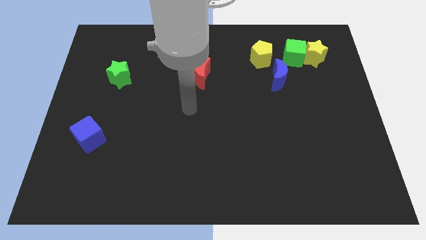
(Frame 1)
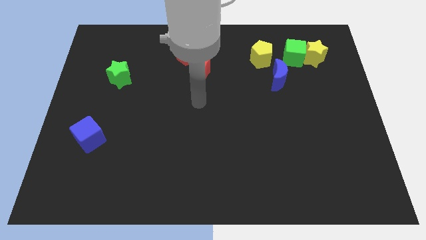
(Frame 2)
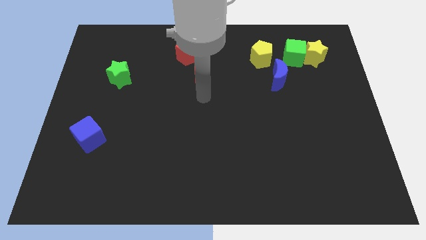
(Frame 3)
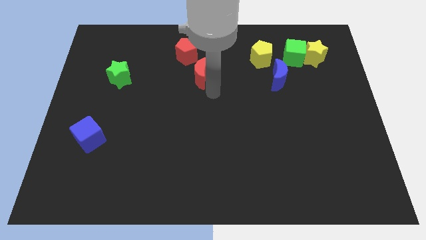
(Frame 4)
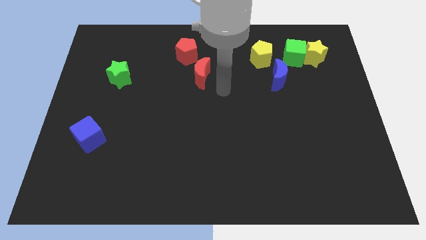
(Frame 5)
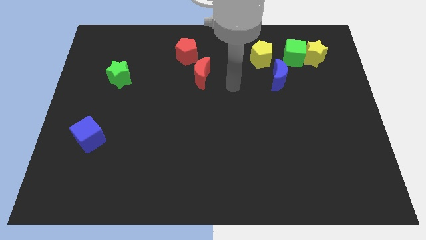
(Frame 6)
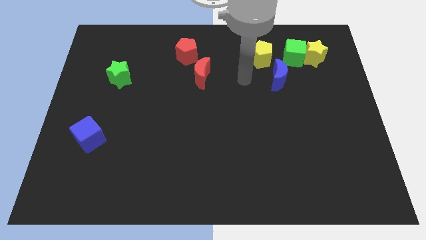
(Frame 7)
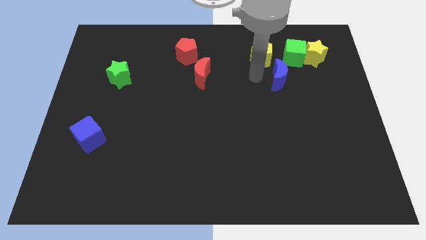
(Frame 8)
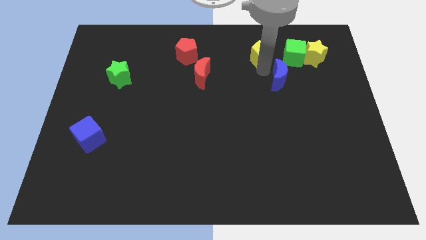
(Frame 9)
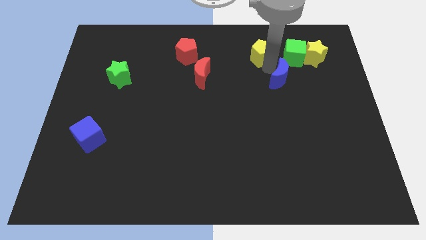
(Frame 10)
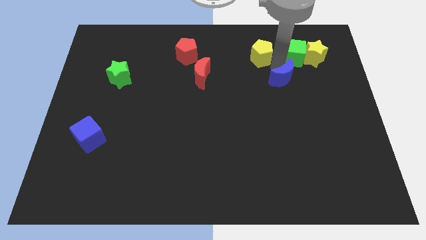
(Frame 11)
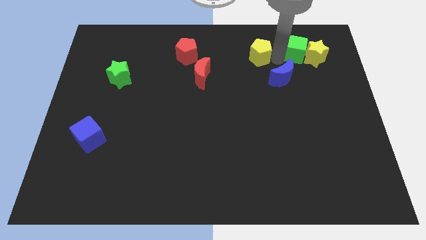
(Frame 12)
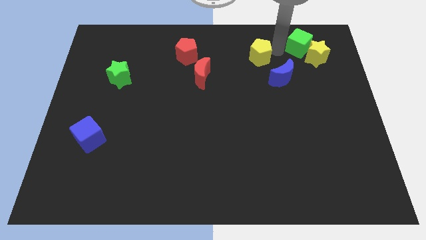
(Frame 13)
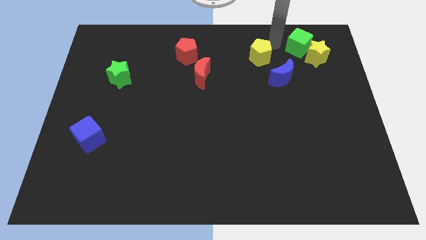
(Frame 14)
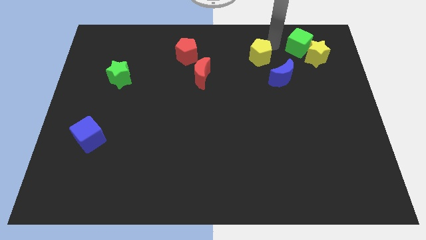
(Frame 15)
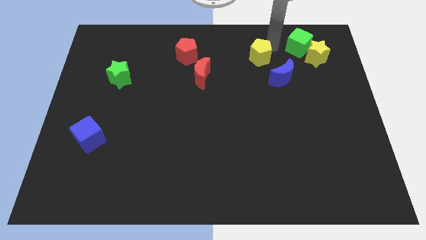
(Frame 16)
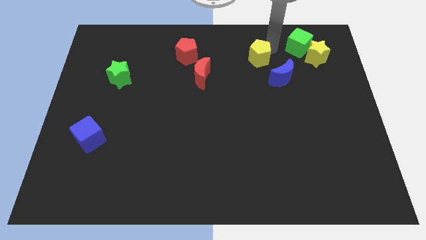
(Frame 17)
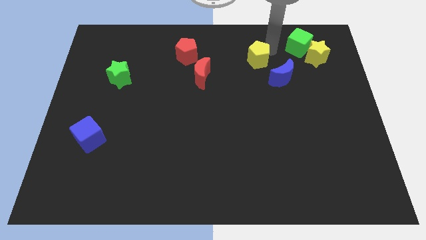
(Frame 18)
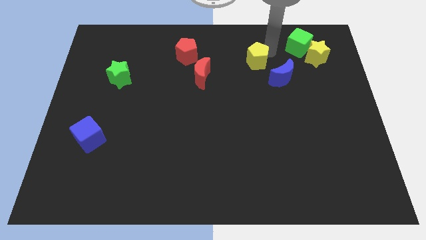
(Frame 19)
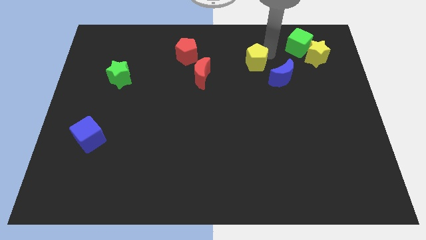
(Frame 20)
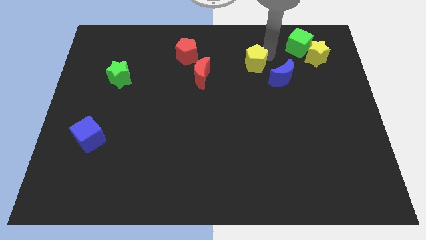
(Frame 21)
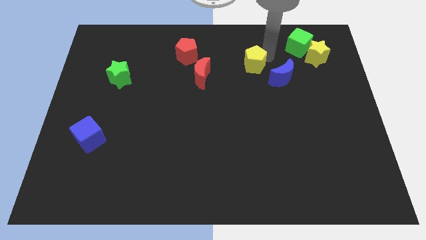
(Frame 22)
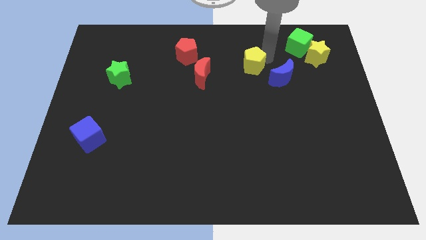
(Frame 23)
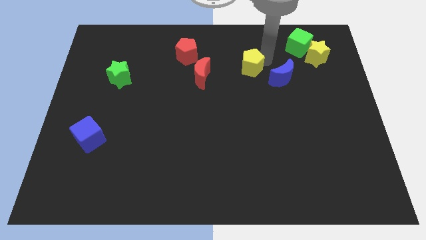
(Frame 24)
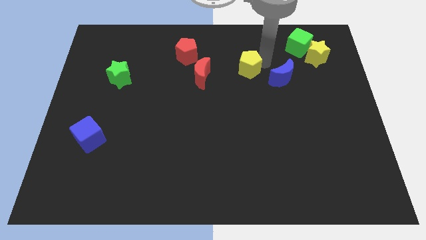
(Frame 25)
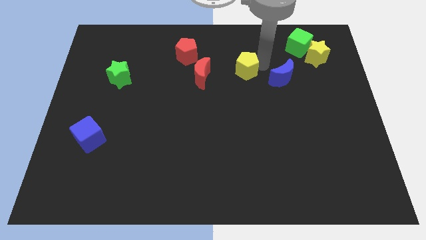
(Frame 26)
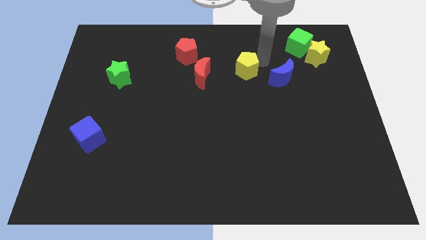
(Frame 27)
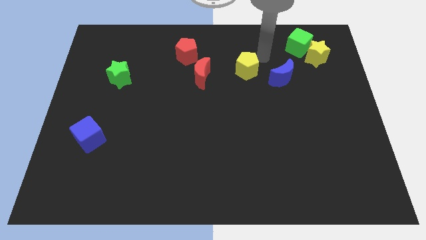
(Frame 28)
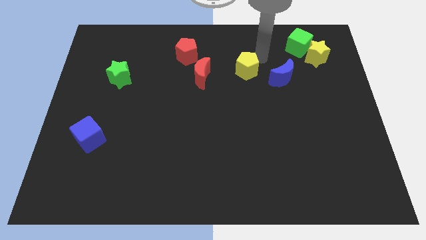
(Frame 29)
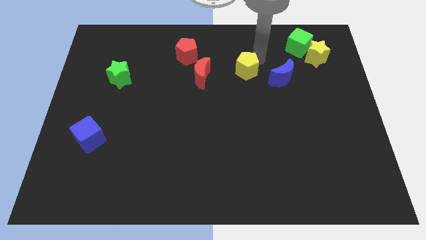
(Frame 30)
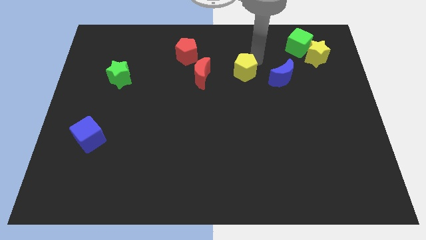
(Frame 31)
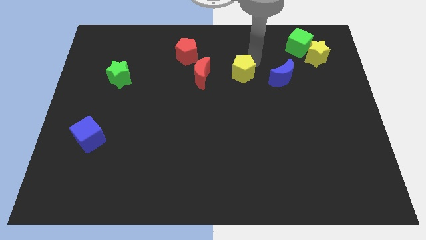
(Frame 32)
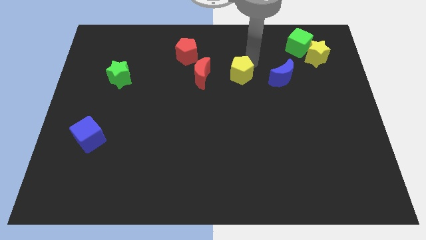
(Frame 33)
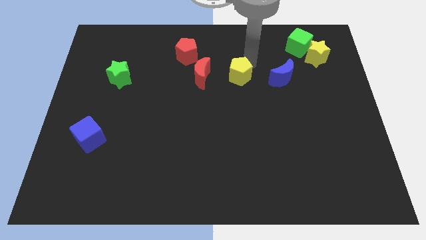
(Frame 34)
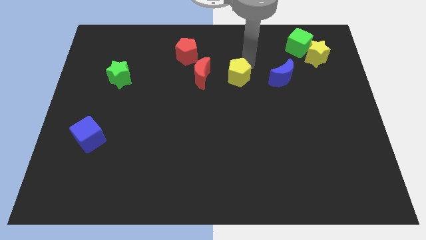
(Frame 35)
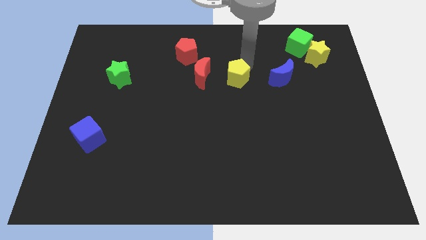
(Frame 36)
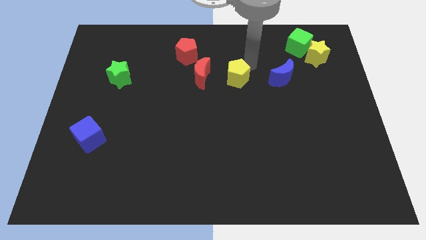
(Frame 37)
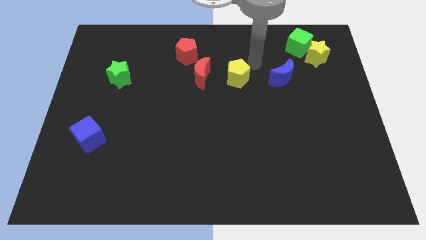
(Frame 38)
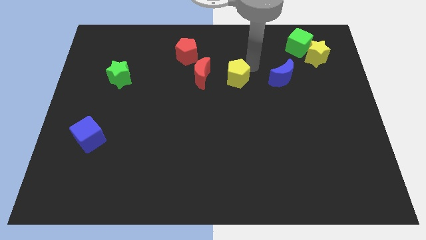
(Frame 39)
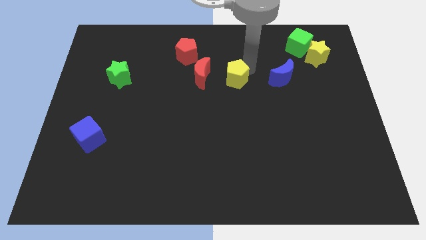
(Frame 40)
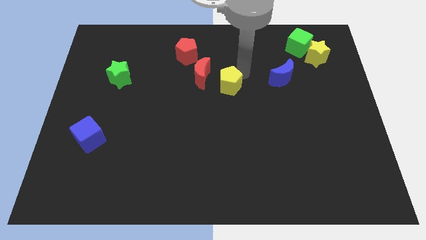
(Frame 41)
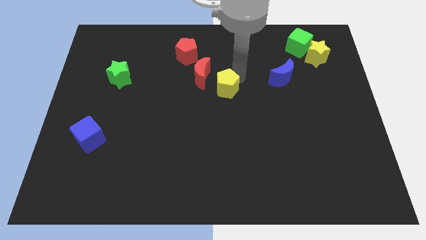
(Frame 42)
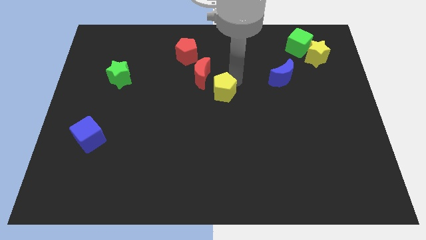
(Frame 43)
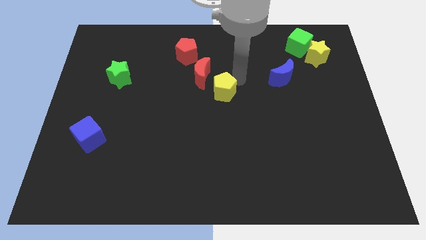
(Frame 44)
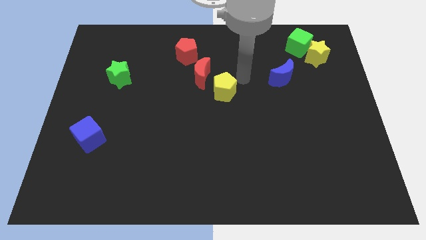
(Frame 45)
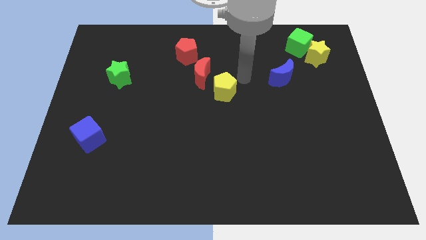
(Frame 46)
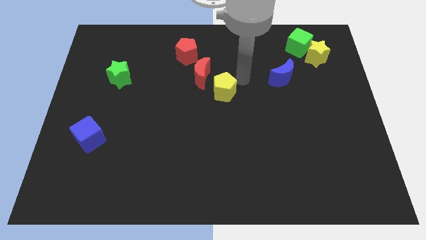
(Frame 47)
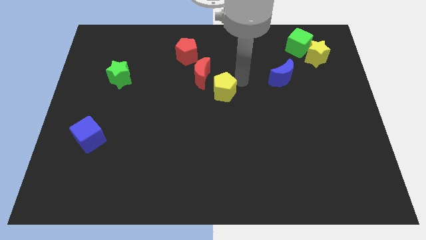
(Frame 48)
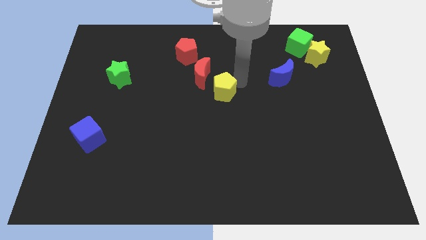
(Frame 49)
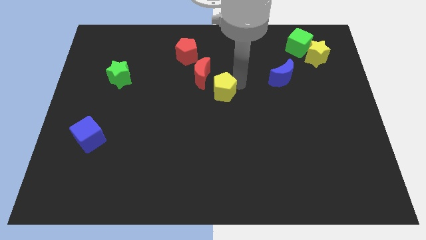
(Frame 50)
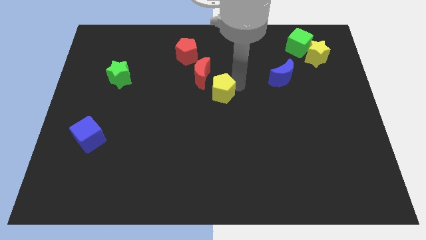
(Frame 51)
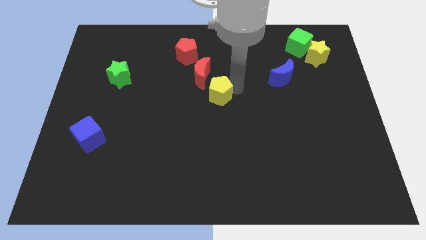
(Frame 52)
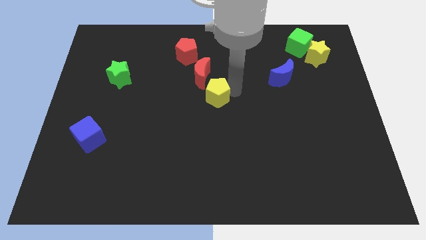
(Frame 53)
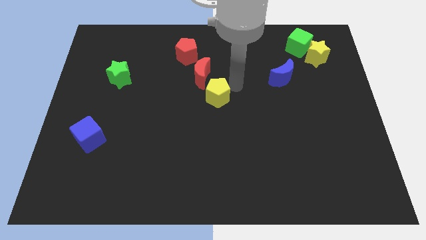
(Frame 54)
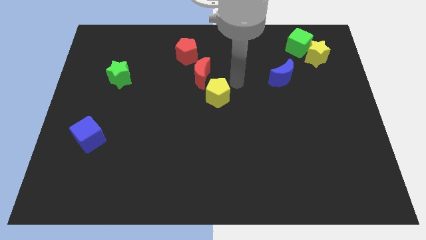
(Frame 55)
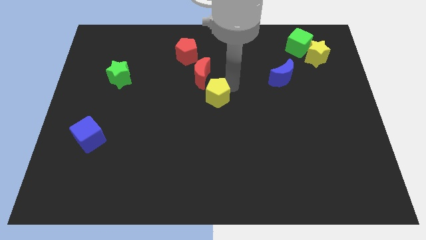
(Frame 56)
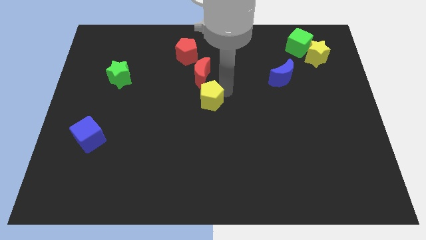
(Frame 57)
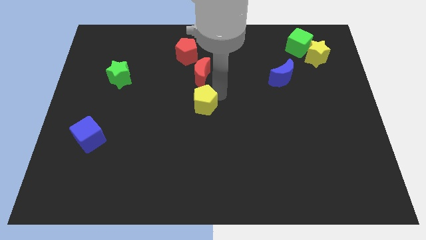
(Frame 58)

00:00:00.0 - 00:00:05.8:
move the yellow pentagon downwards and to the left

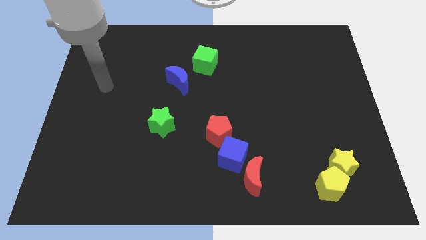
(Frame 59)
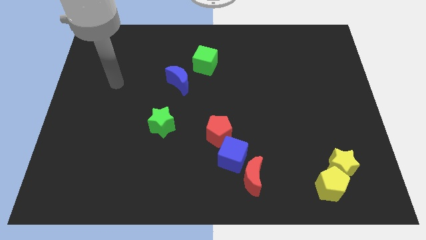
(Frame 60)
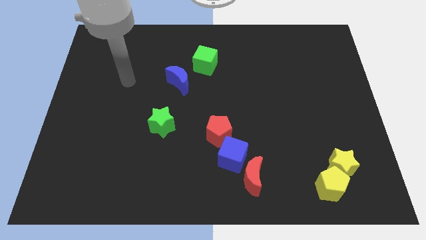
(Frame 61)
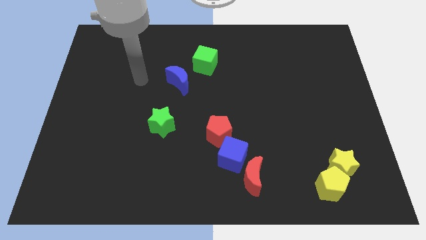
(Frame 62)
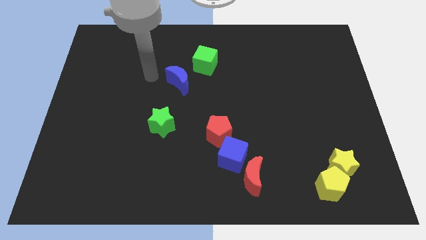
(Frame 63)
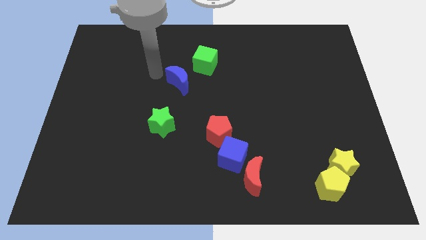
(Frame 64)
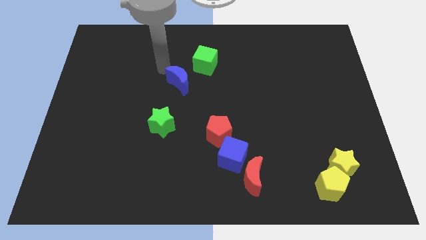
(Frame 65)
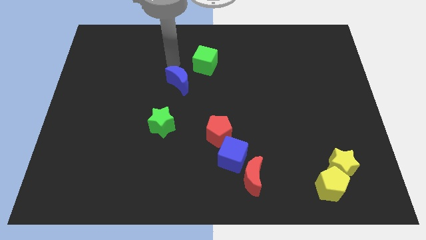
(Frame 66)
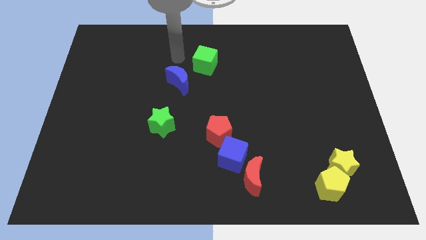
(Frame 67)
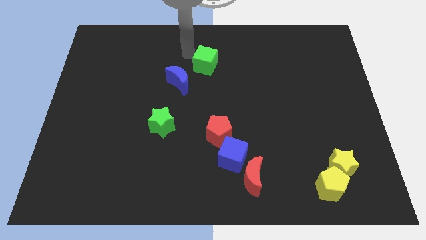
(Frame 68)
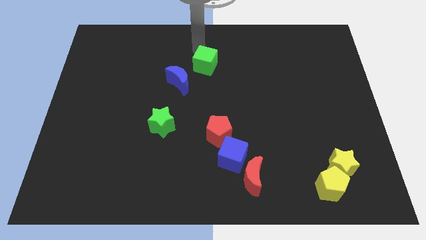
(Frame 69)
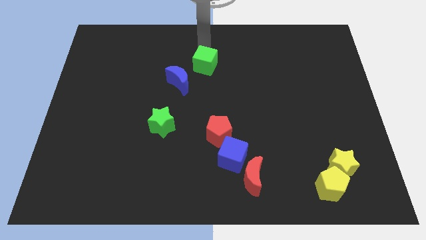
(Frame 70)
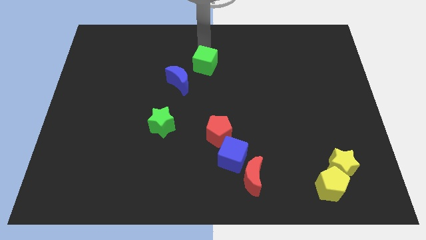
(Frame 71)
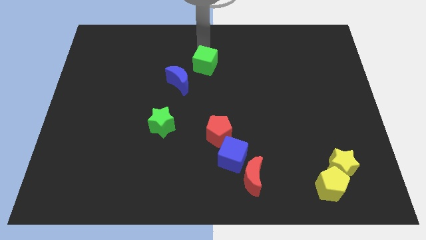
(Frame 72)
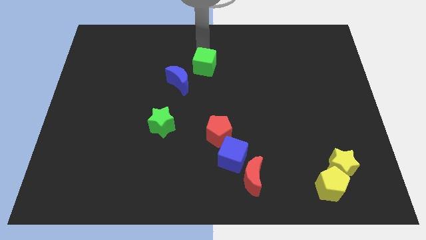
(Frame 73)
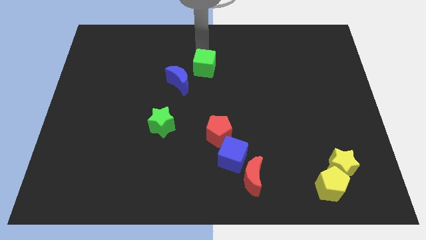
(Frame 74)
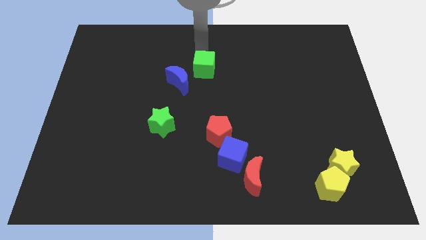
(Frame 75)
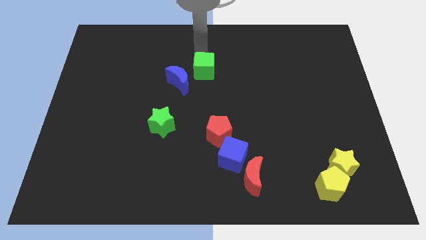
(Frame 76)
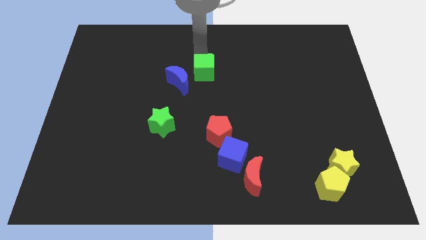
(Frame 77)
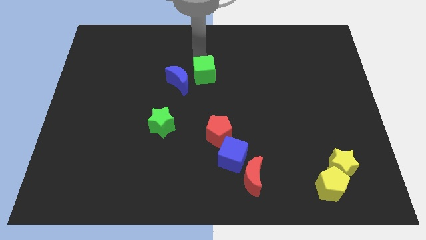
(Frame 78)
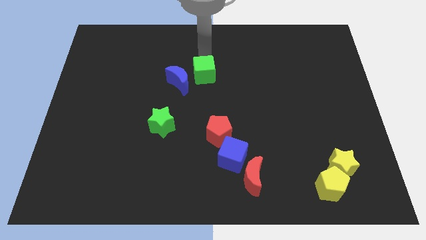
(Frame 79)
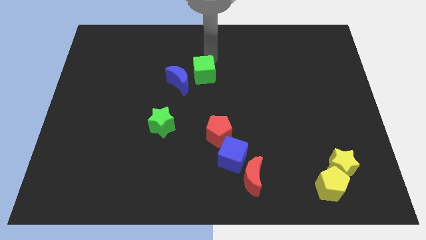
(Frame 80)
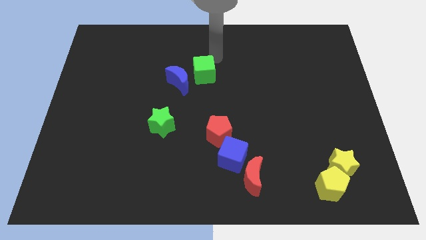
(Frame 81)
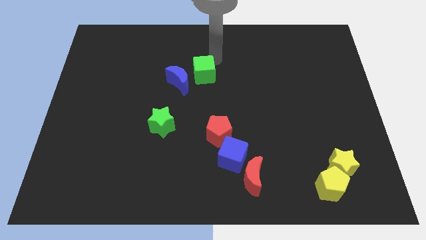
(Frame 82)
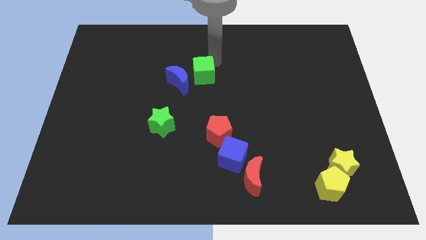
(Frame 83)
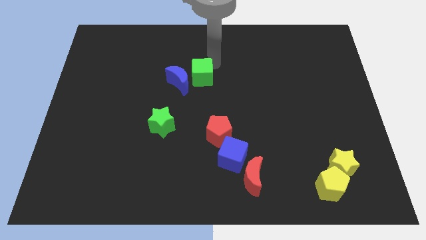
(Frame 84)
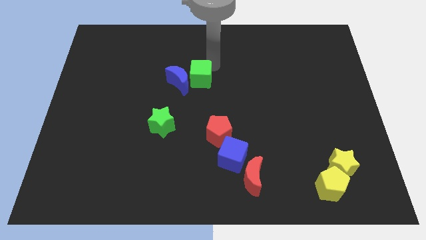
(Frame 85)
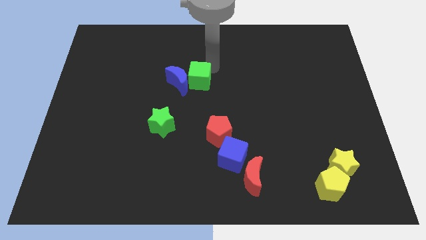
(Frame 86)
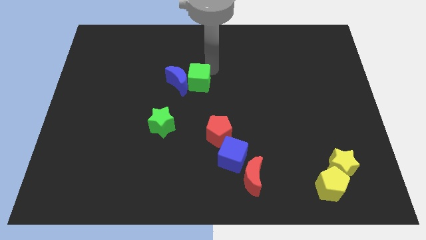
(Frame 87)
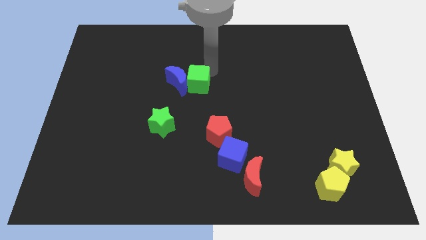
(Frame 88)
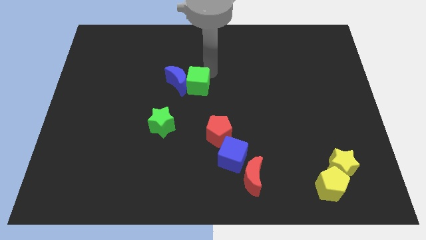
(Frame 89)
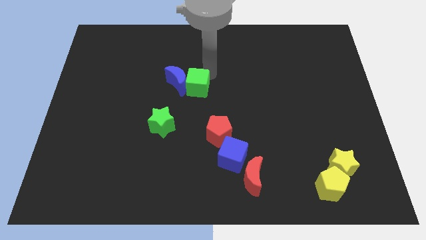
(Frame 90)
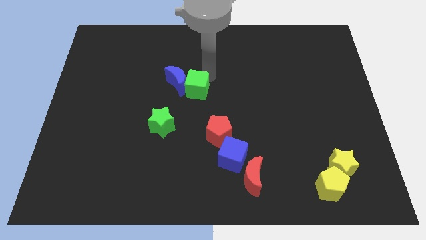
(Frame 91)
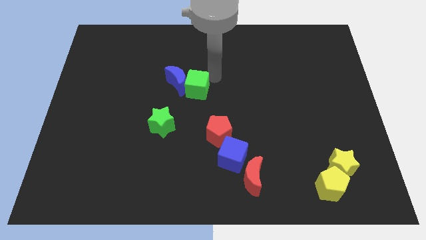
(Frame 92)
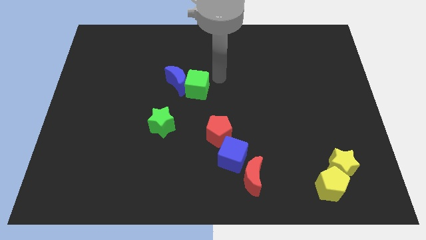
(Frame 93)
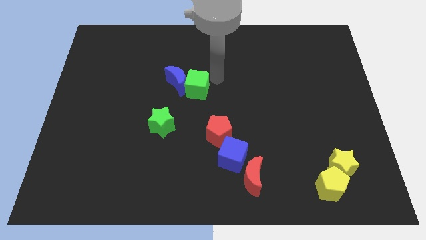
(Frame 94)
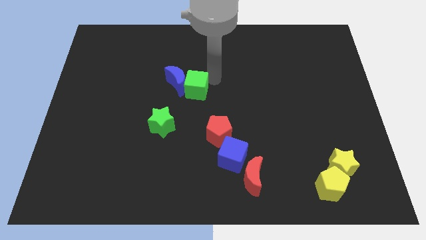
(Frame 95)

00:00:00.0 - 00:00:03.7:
push the green cube downwards and to the left diagonally a little bit
